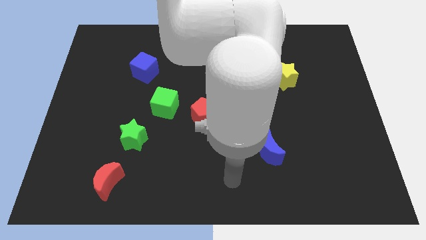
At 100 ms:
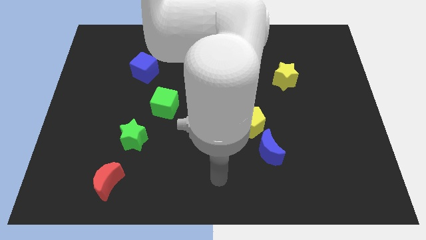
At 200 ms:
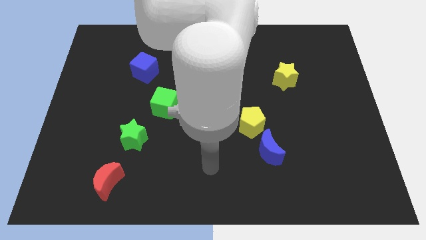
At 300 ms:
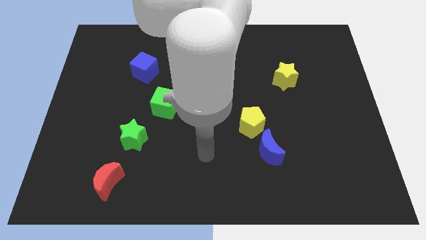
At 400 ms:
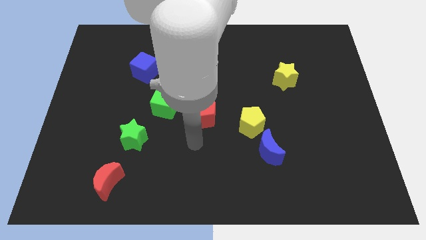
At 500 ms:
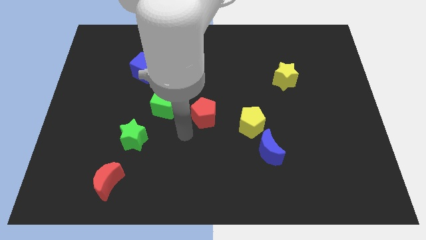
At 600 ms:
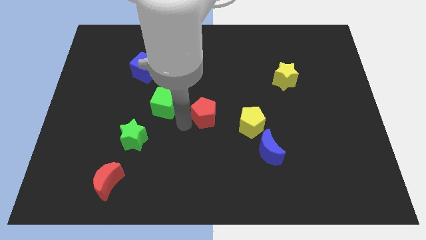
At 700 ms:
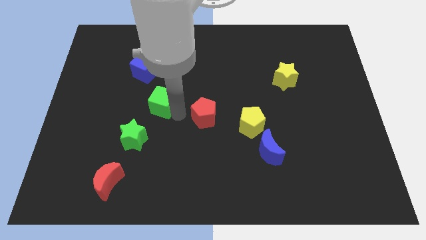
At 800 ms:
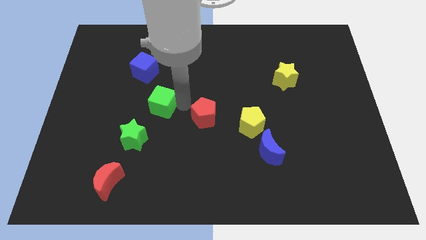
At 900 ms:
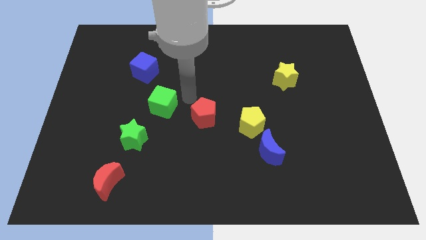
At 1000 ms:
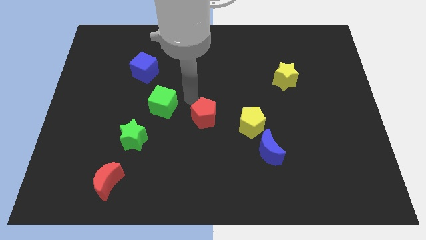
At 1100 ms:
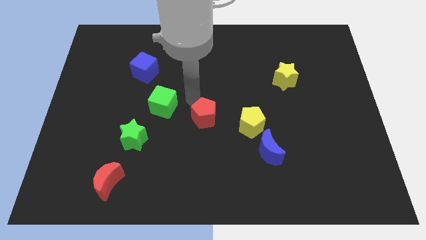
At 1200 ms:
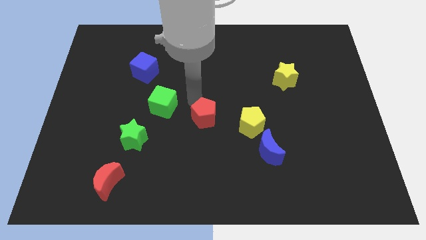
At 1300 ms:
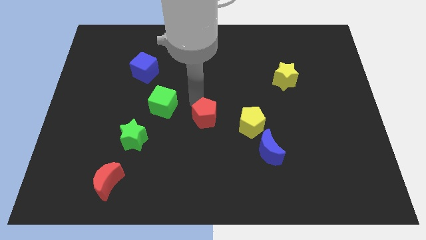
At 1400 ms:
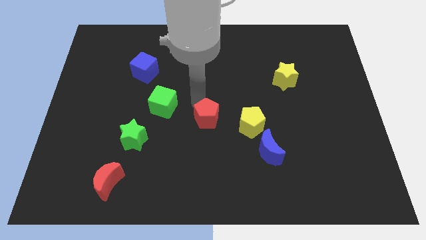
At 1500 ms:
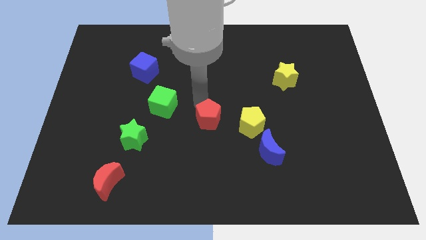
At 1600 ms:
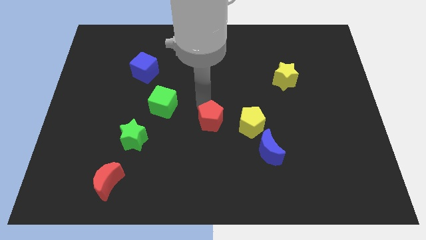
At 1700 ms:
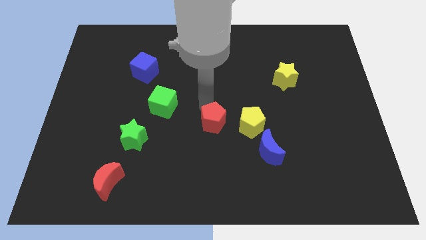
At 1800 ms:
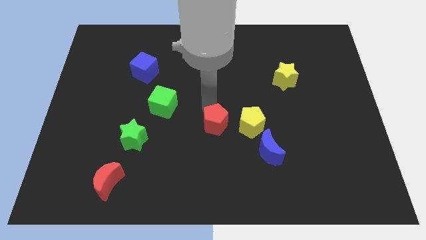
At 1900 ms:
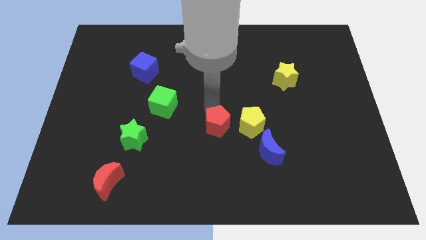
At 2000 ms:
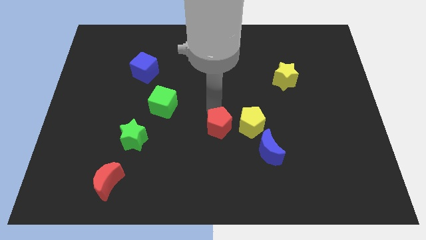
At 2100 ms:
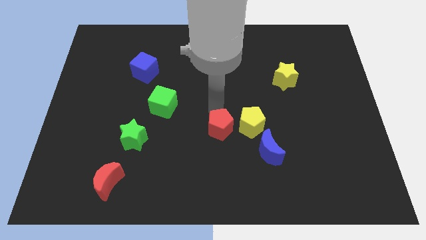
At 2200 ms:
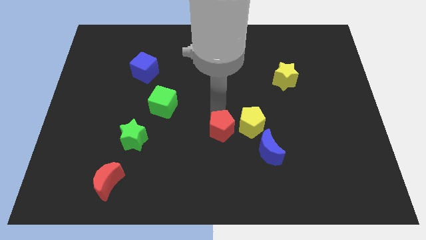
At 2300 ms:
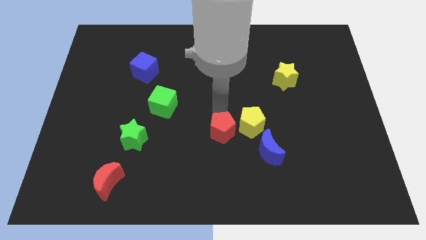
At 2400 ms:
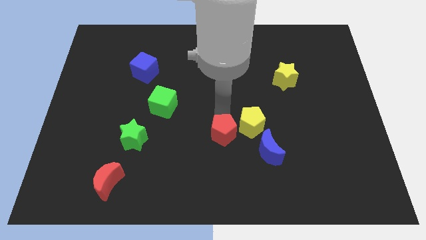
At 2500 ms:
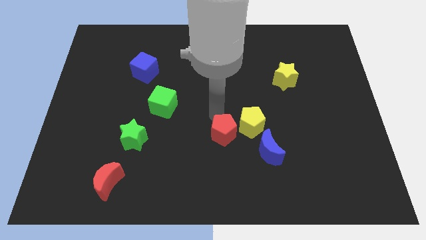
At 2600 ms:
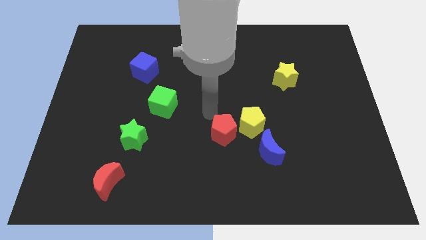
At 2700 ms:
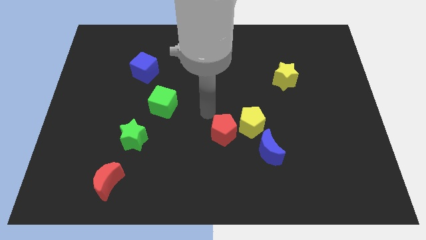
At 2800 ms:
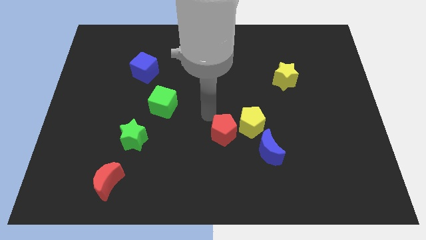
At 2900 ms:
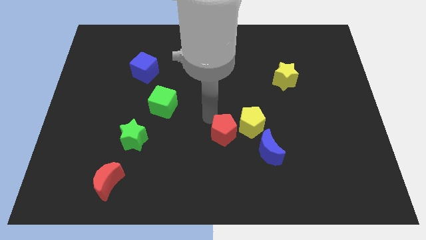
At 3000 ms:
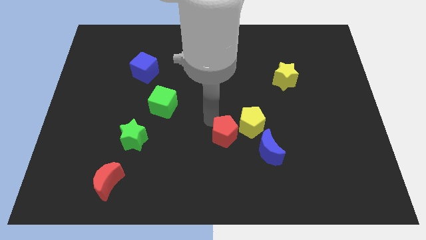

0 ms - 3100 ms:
move the red pentagon down and to the right a bit

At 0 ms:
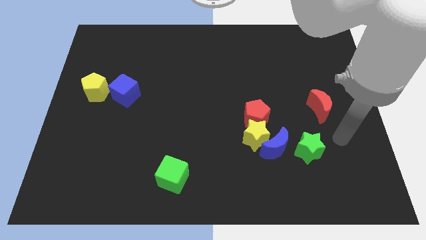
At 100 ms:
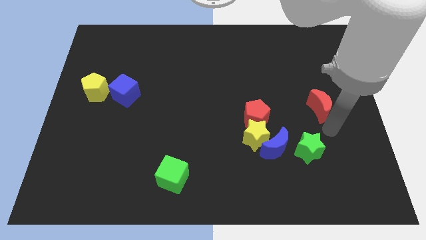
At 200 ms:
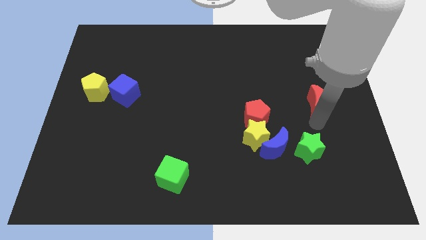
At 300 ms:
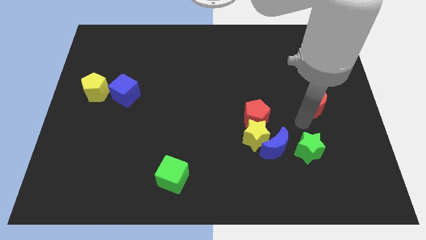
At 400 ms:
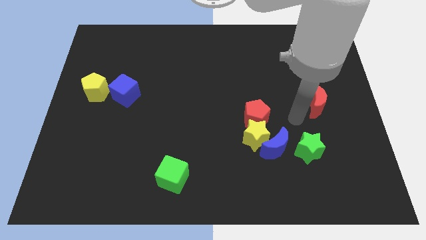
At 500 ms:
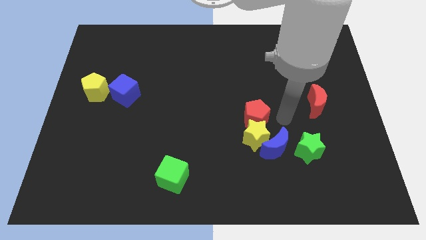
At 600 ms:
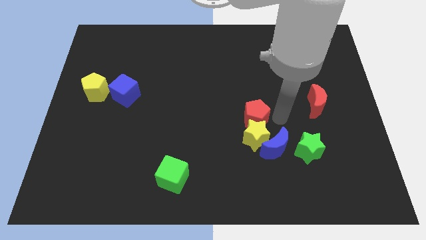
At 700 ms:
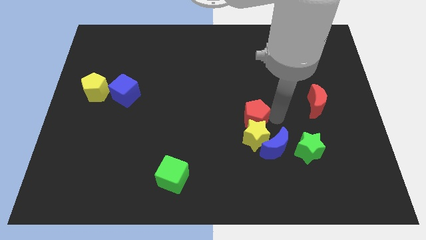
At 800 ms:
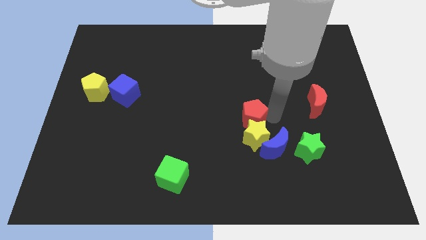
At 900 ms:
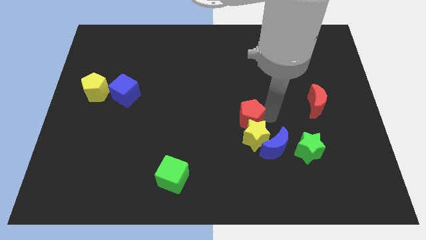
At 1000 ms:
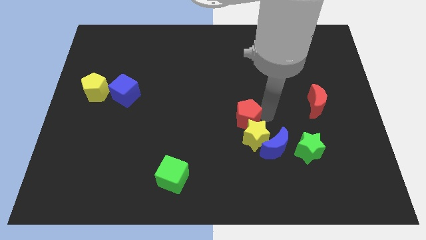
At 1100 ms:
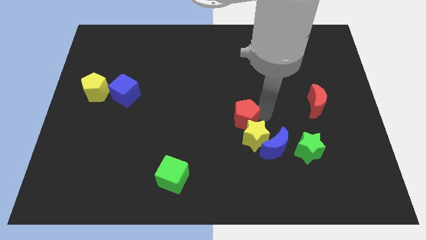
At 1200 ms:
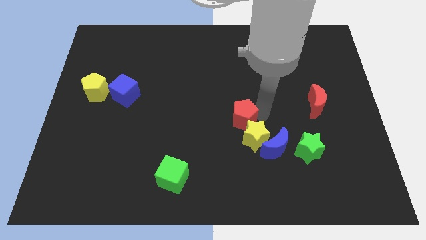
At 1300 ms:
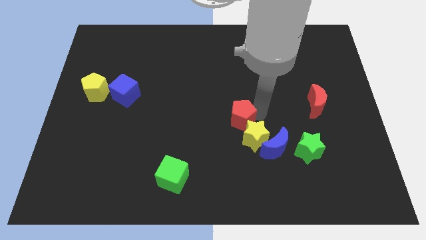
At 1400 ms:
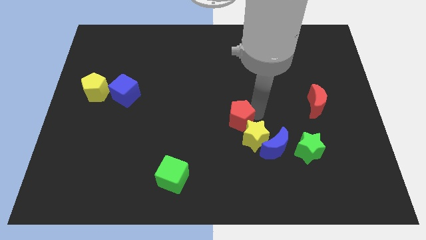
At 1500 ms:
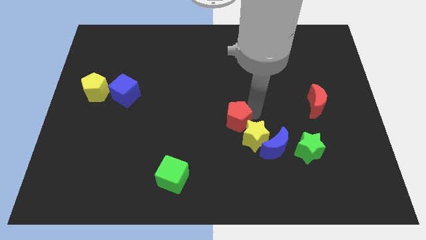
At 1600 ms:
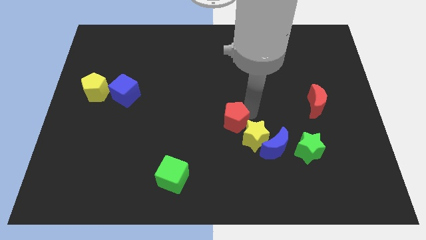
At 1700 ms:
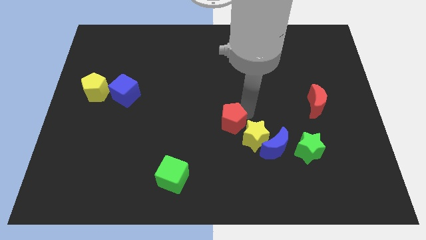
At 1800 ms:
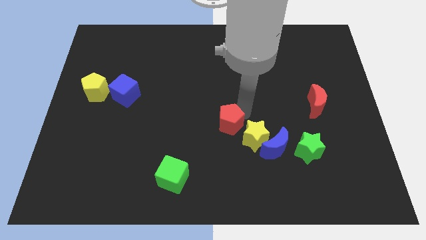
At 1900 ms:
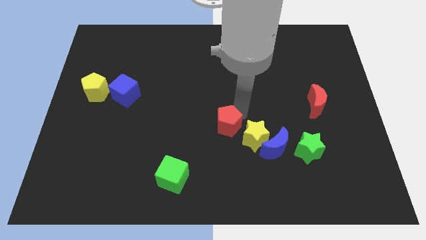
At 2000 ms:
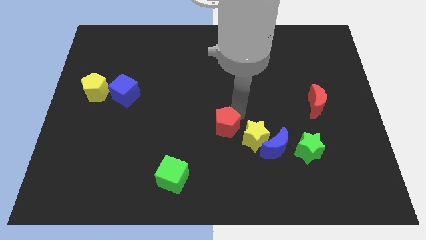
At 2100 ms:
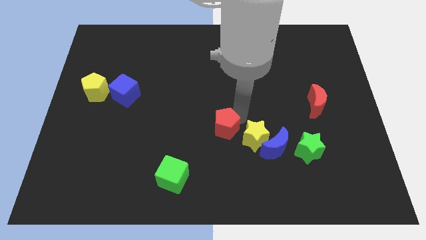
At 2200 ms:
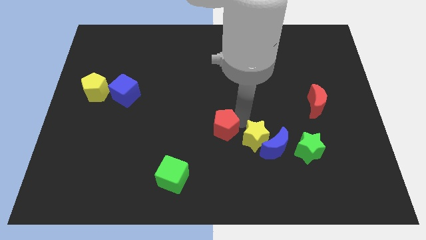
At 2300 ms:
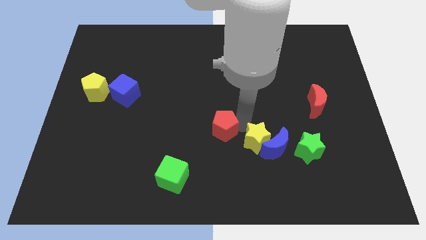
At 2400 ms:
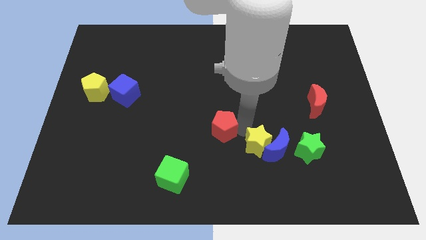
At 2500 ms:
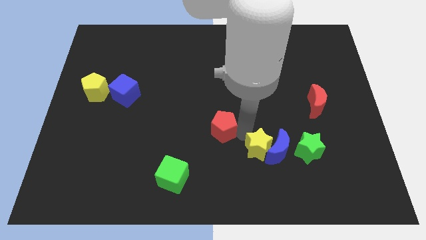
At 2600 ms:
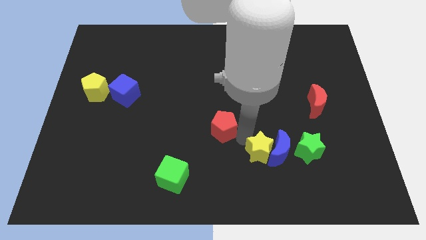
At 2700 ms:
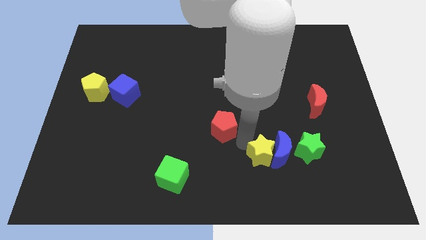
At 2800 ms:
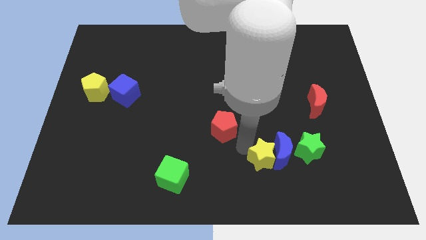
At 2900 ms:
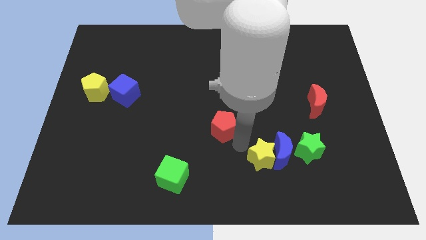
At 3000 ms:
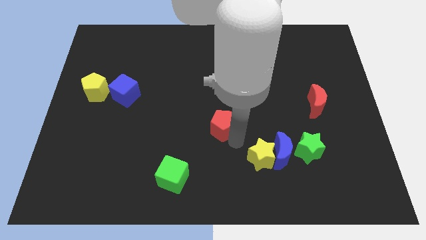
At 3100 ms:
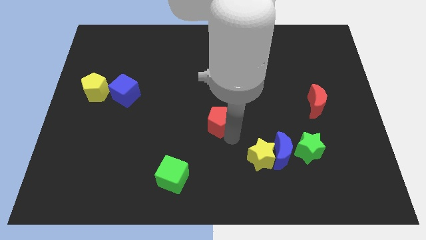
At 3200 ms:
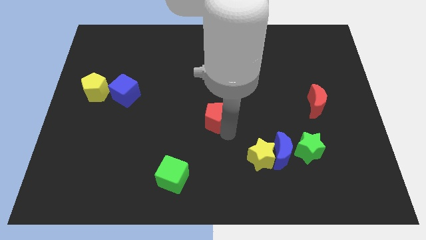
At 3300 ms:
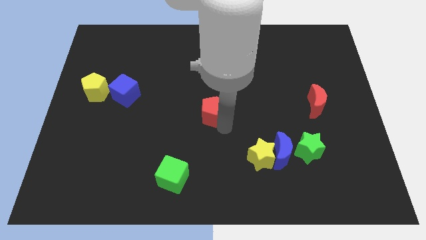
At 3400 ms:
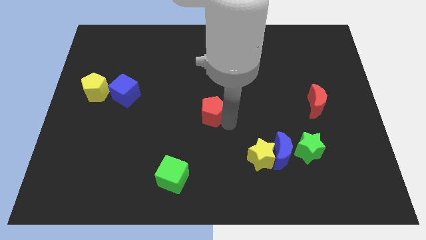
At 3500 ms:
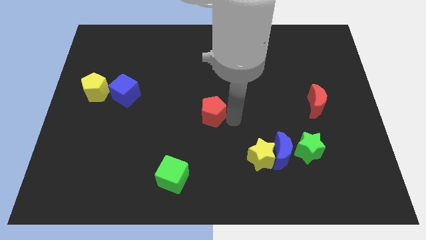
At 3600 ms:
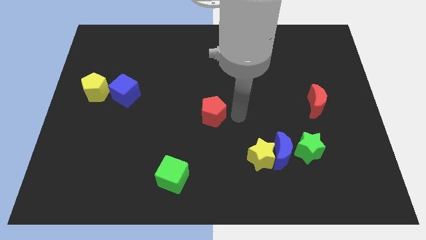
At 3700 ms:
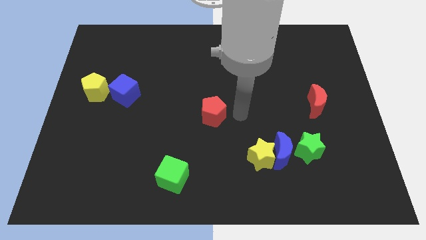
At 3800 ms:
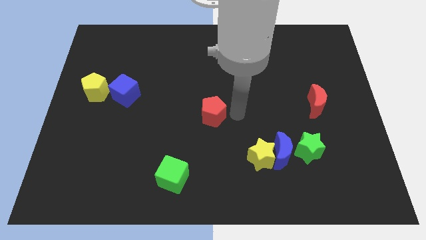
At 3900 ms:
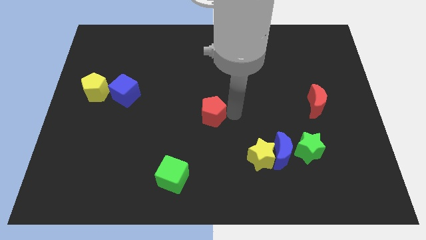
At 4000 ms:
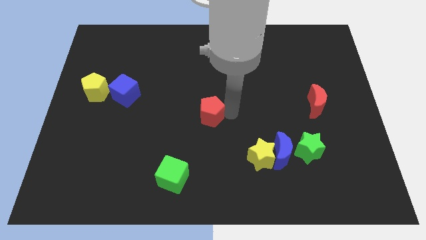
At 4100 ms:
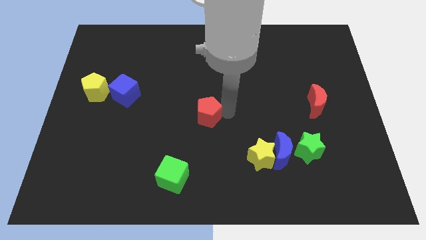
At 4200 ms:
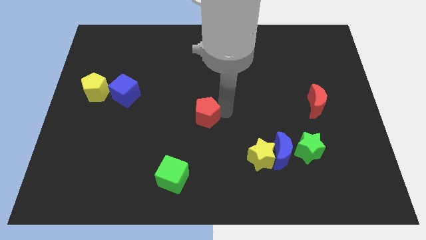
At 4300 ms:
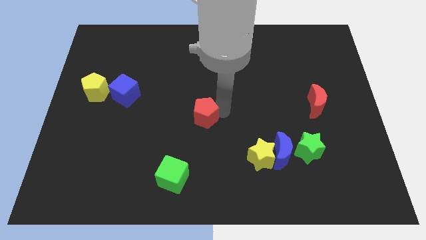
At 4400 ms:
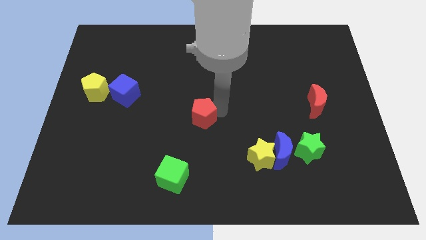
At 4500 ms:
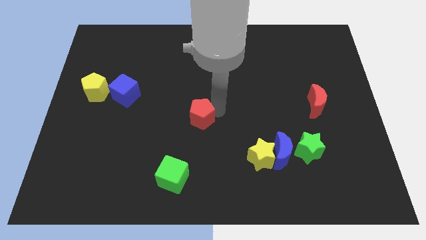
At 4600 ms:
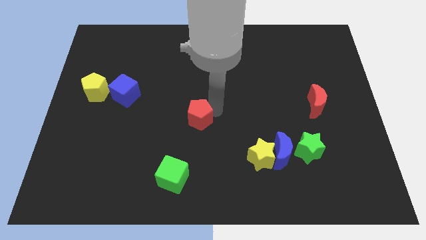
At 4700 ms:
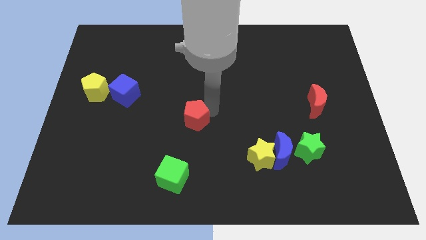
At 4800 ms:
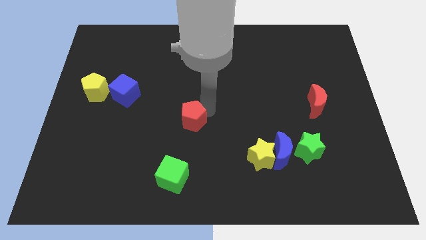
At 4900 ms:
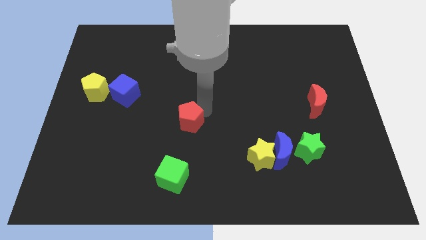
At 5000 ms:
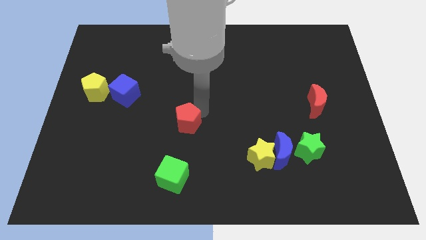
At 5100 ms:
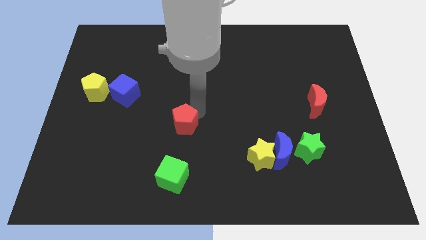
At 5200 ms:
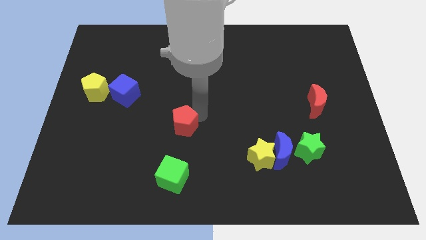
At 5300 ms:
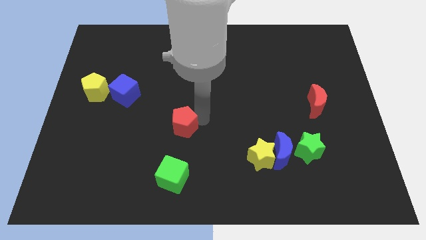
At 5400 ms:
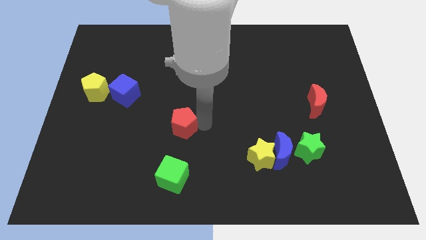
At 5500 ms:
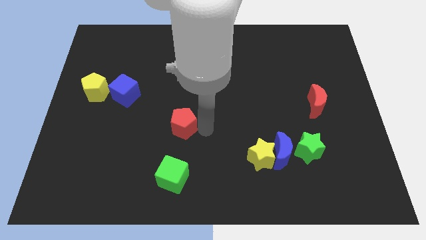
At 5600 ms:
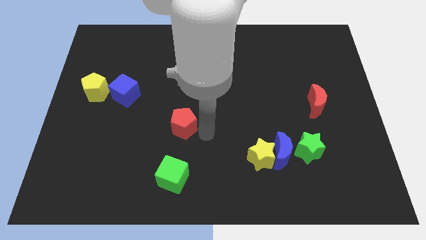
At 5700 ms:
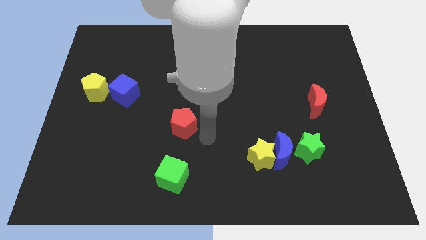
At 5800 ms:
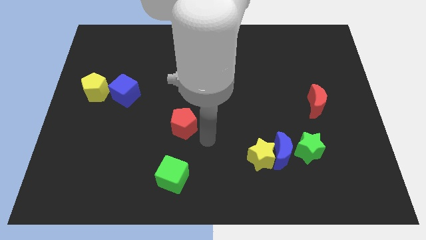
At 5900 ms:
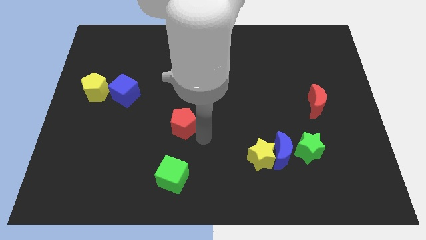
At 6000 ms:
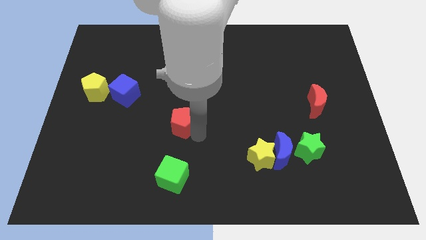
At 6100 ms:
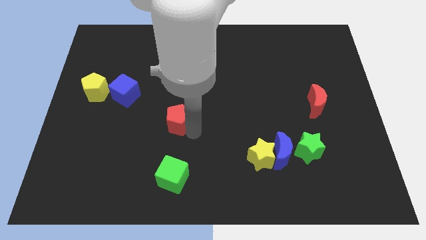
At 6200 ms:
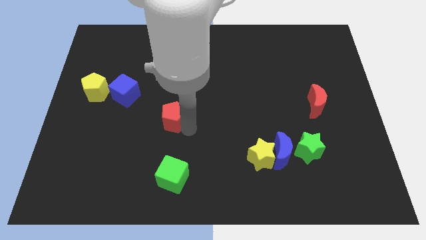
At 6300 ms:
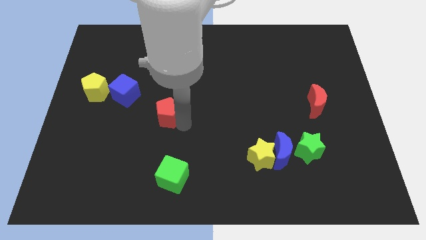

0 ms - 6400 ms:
slide the red pentagon to the left
